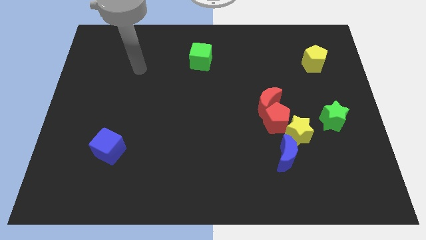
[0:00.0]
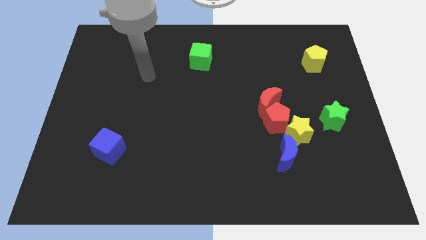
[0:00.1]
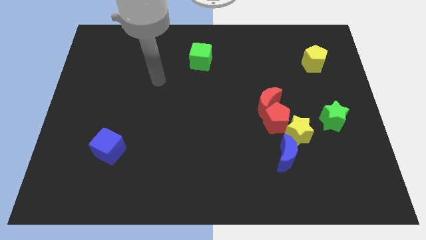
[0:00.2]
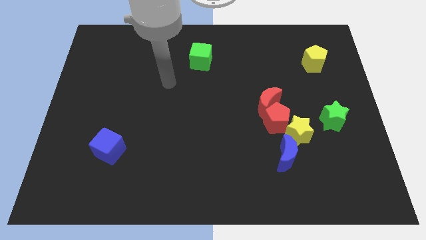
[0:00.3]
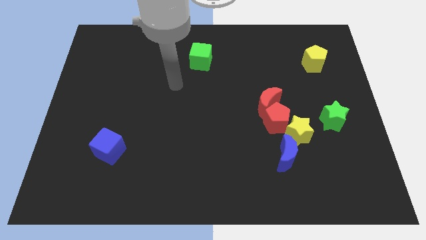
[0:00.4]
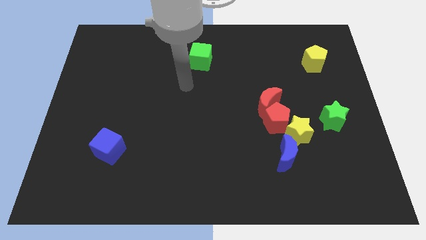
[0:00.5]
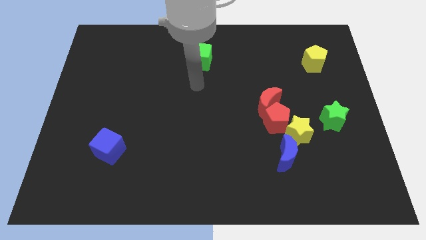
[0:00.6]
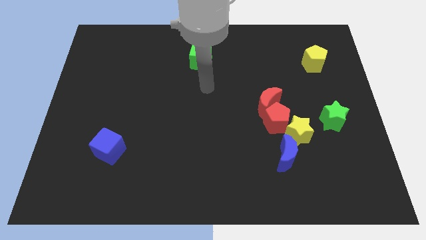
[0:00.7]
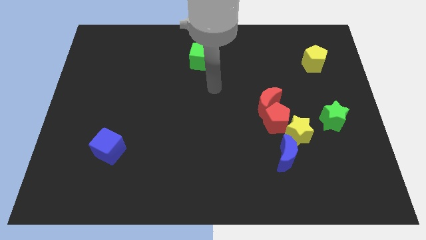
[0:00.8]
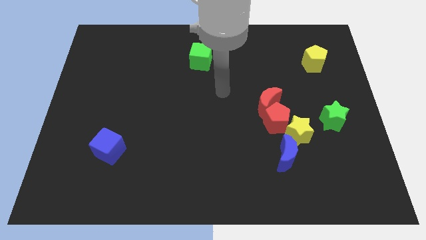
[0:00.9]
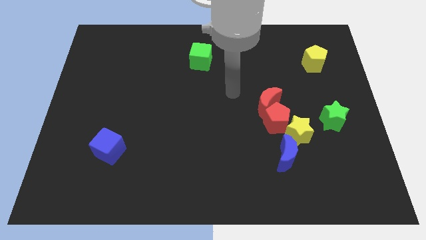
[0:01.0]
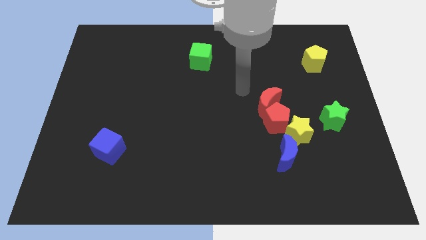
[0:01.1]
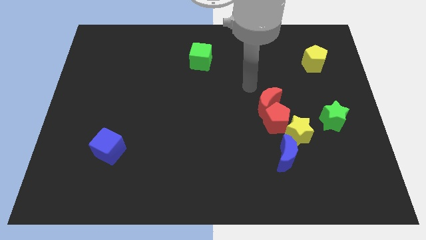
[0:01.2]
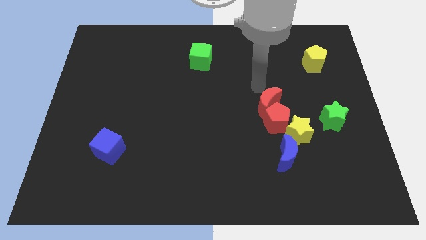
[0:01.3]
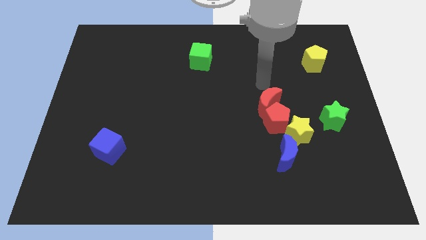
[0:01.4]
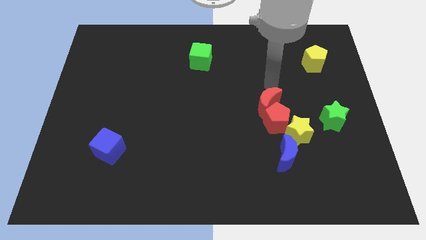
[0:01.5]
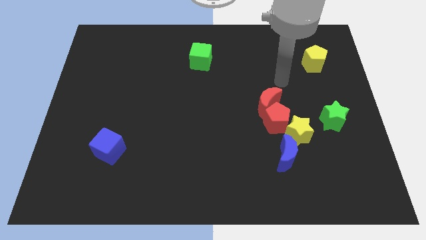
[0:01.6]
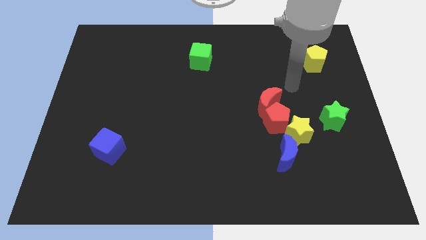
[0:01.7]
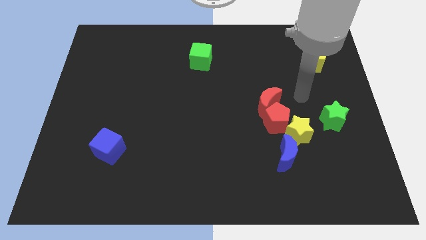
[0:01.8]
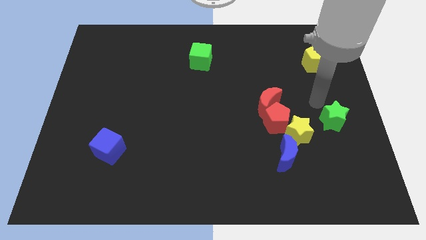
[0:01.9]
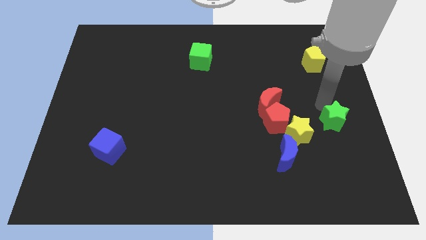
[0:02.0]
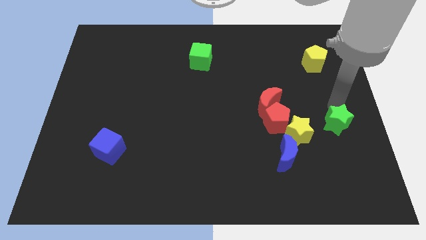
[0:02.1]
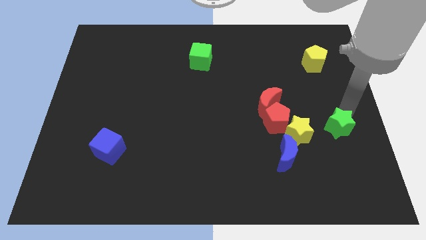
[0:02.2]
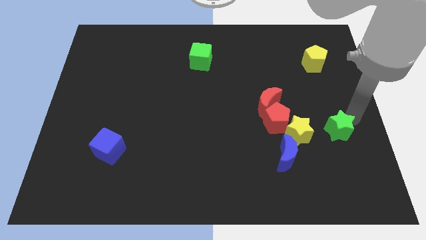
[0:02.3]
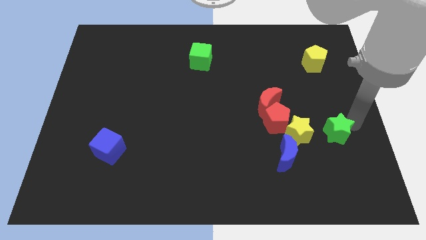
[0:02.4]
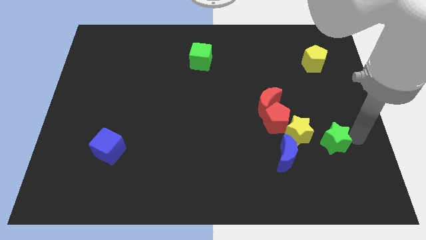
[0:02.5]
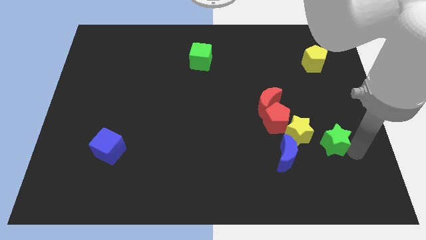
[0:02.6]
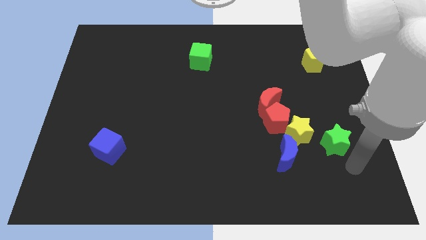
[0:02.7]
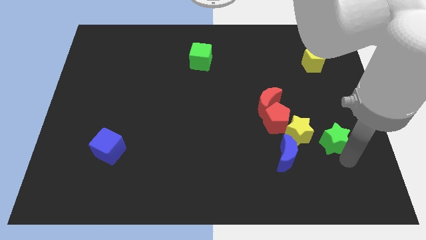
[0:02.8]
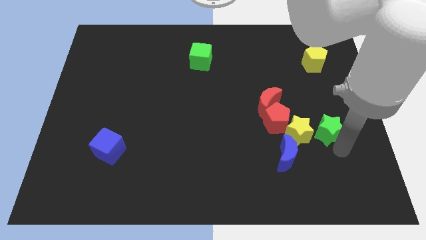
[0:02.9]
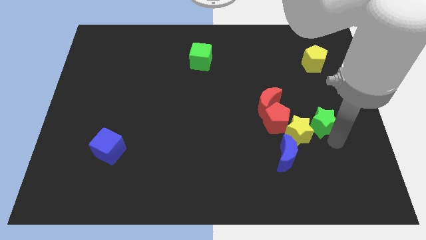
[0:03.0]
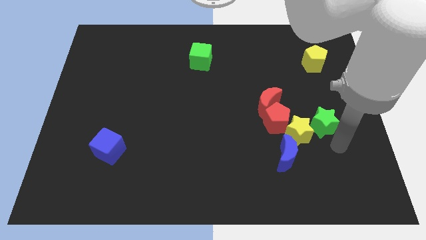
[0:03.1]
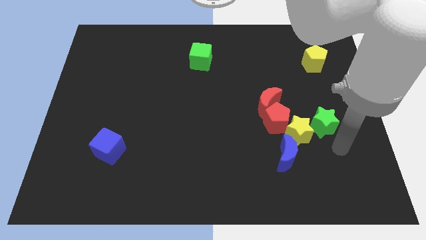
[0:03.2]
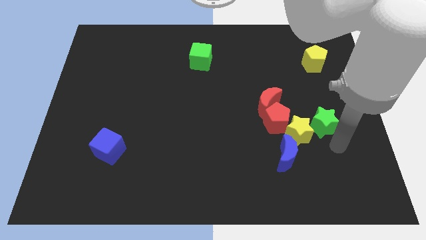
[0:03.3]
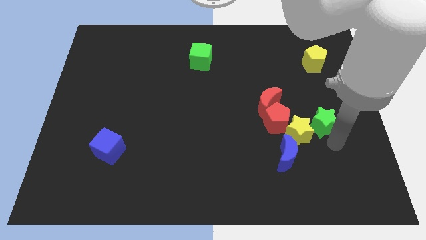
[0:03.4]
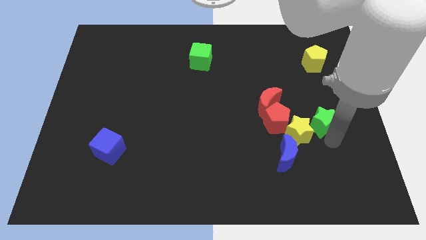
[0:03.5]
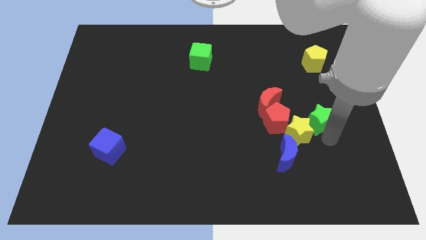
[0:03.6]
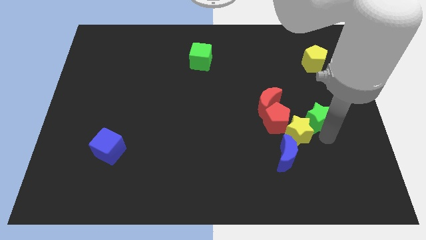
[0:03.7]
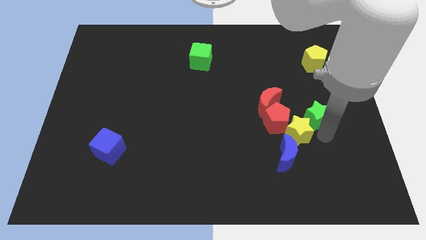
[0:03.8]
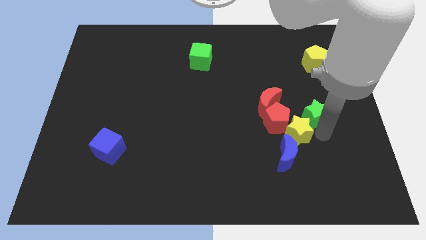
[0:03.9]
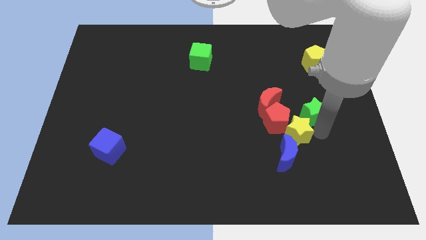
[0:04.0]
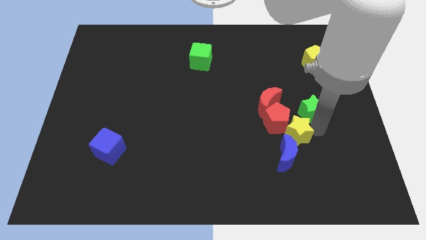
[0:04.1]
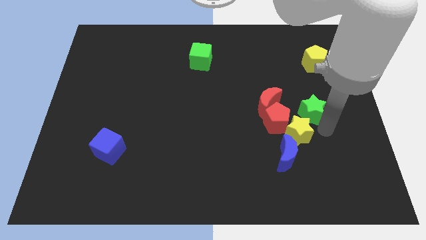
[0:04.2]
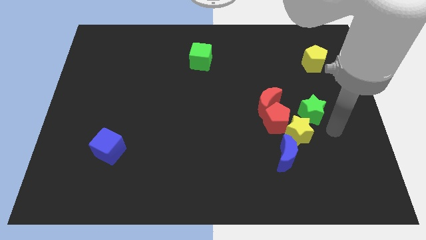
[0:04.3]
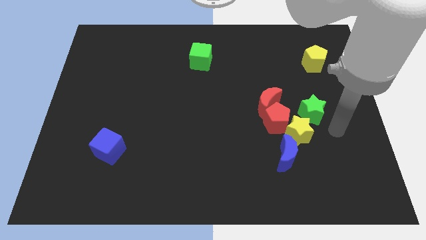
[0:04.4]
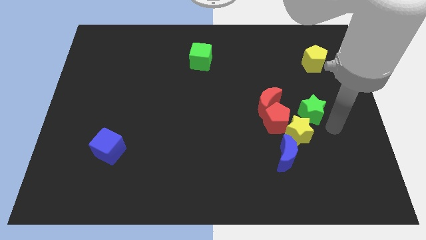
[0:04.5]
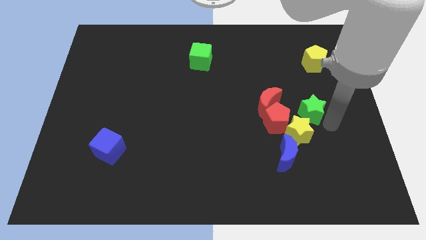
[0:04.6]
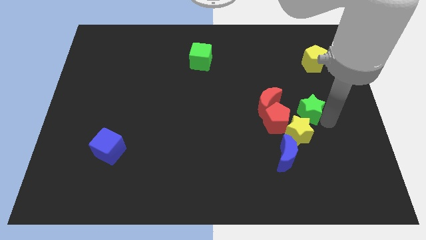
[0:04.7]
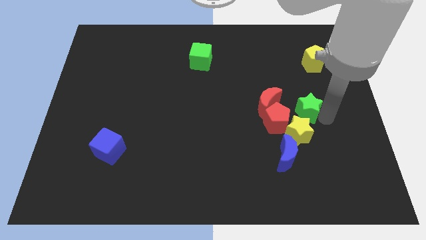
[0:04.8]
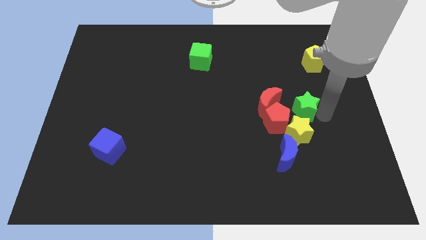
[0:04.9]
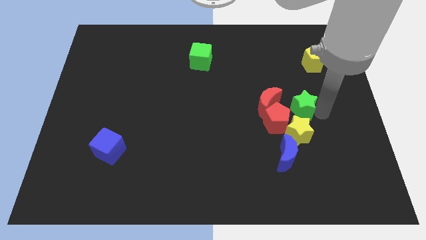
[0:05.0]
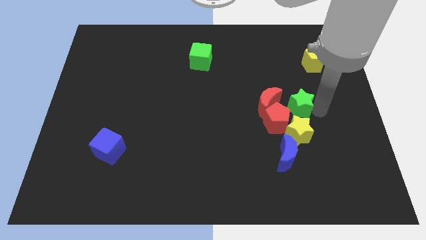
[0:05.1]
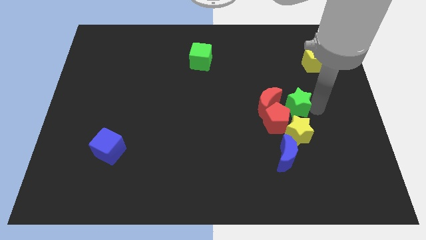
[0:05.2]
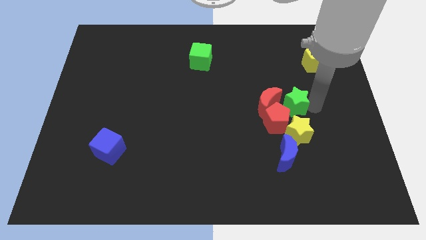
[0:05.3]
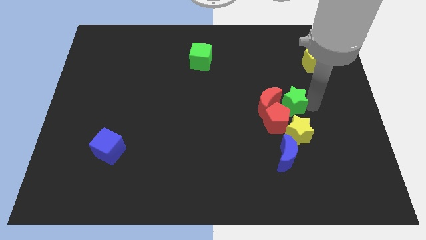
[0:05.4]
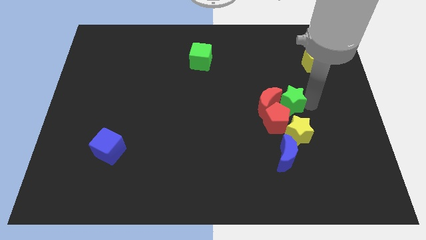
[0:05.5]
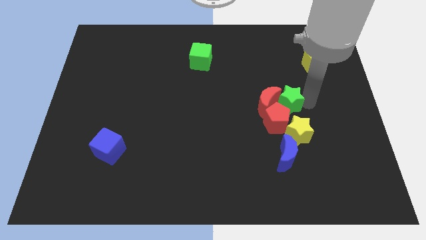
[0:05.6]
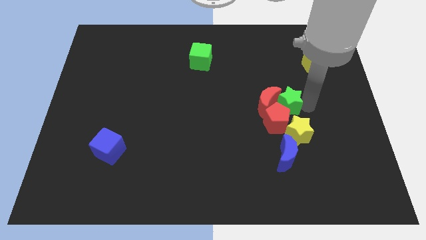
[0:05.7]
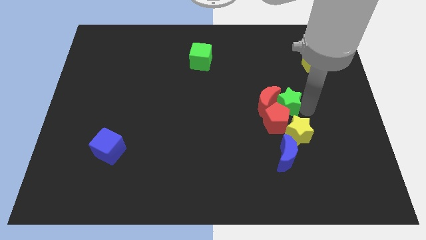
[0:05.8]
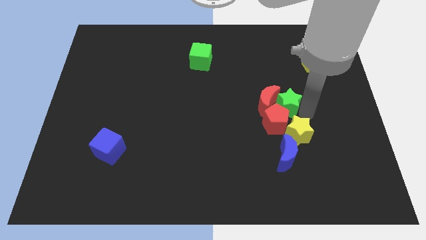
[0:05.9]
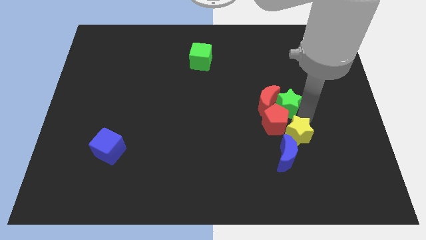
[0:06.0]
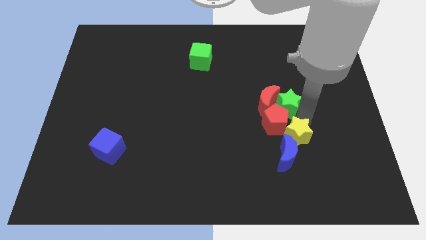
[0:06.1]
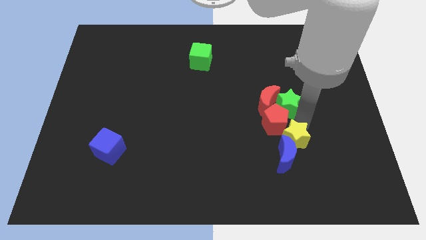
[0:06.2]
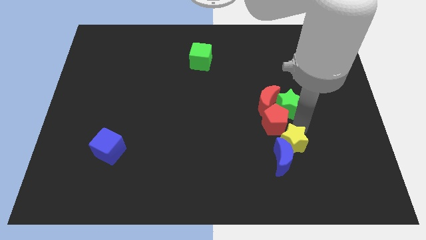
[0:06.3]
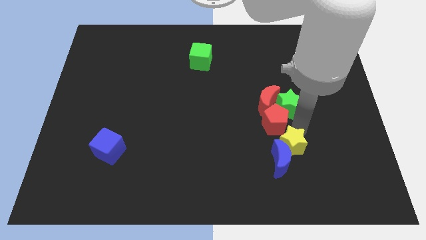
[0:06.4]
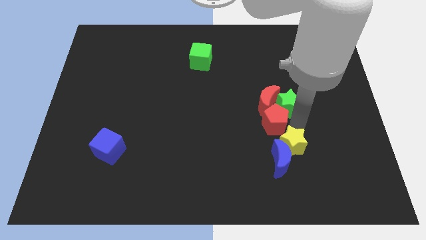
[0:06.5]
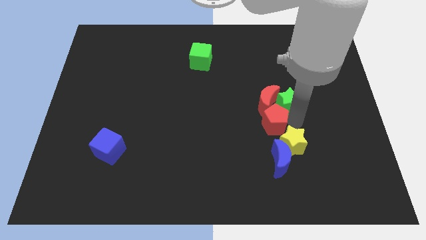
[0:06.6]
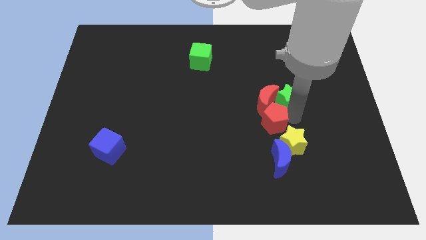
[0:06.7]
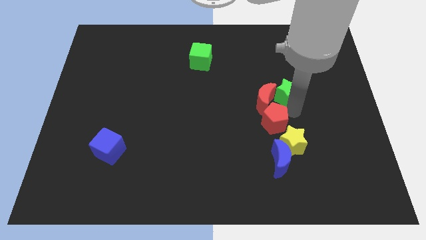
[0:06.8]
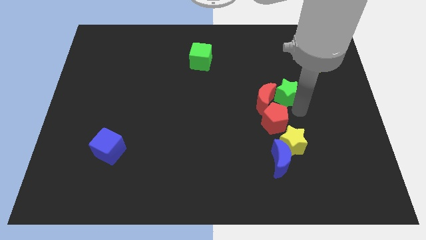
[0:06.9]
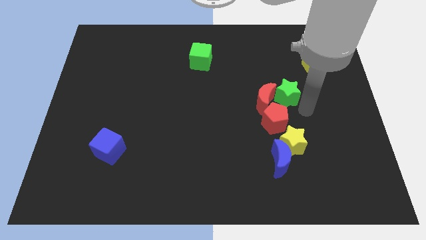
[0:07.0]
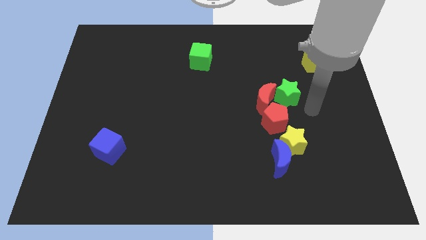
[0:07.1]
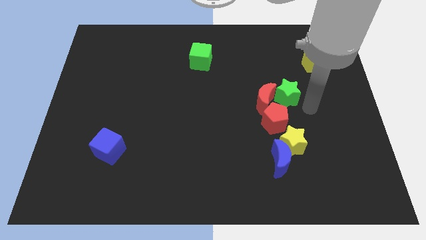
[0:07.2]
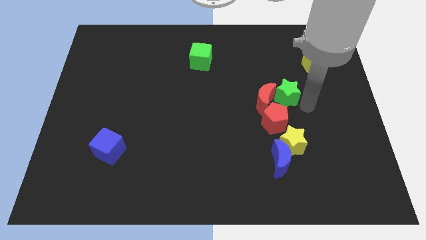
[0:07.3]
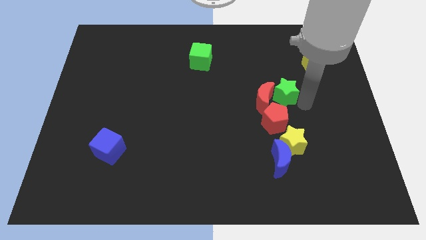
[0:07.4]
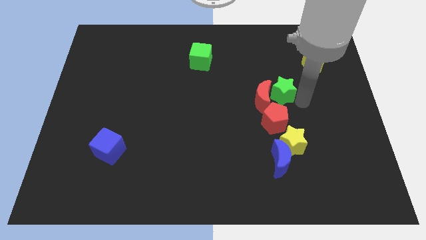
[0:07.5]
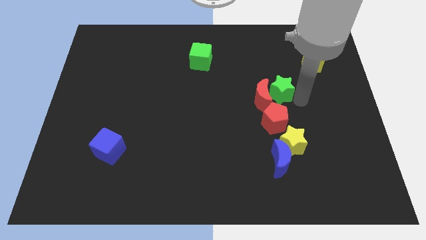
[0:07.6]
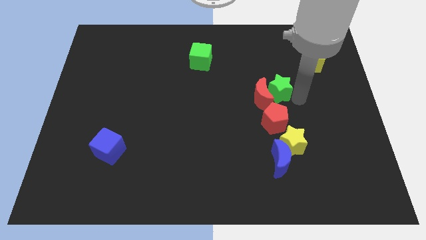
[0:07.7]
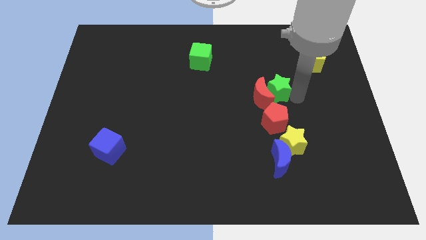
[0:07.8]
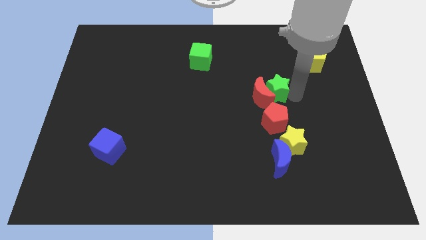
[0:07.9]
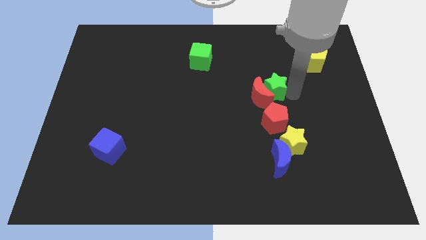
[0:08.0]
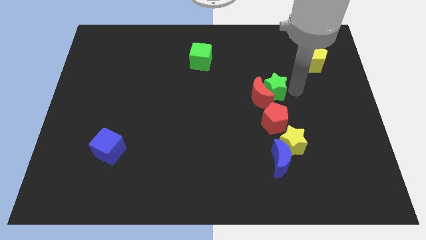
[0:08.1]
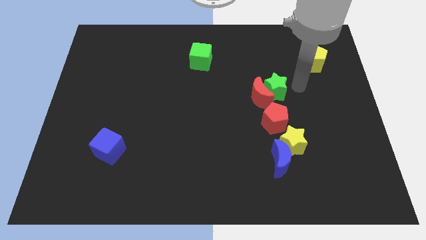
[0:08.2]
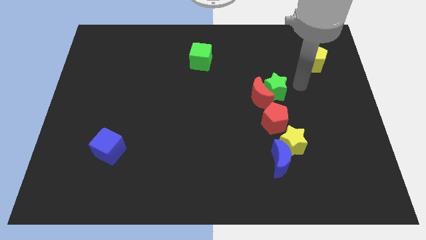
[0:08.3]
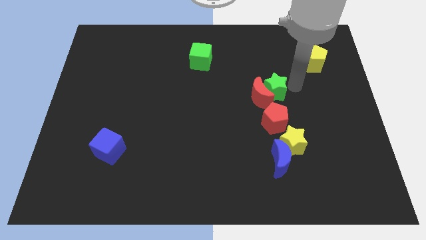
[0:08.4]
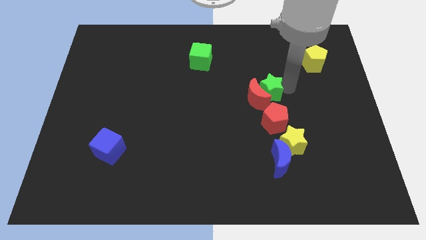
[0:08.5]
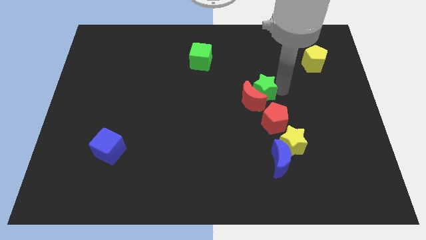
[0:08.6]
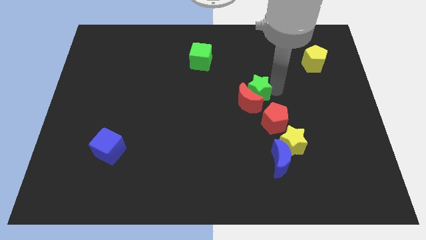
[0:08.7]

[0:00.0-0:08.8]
slide the green star to the center
